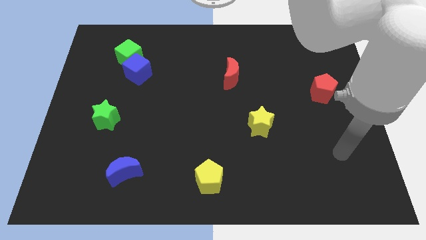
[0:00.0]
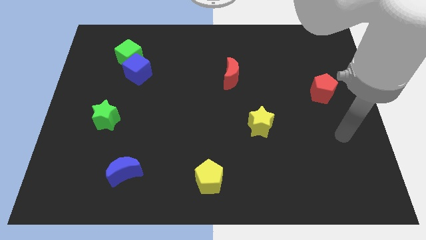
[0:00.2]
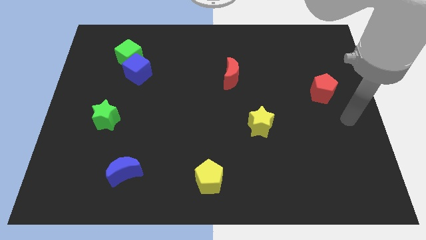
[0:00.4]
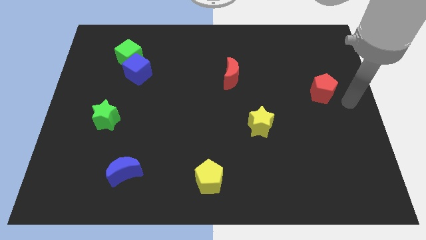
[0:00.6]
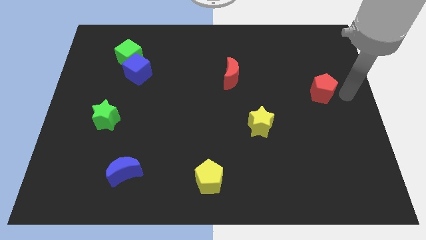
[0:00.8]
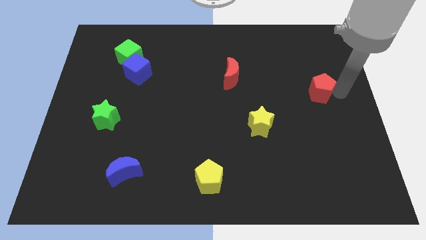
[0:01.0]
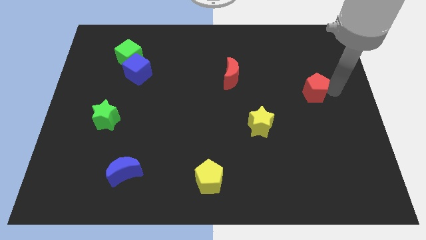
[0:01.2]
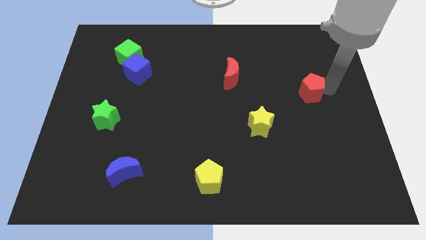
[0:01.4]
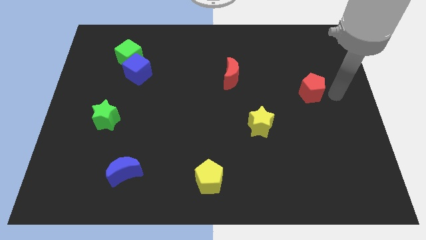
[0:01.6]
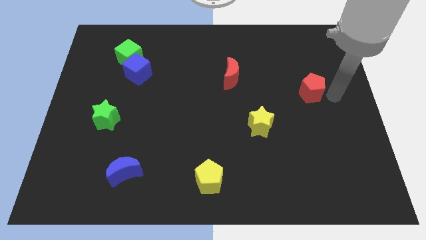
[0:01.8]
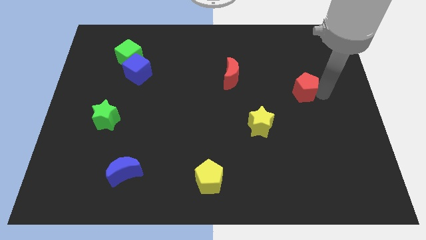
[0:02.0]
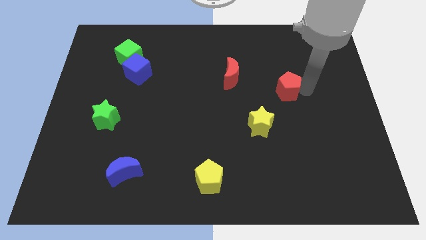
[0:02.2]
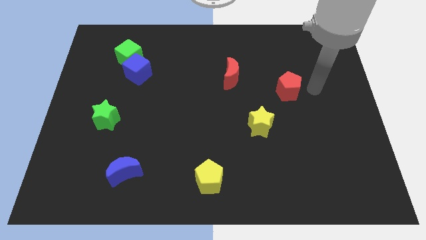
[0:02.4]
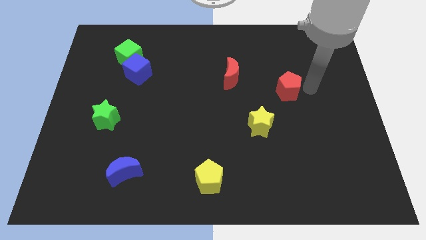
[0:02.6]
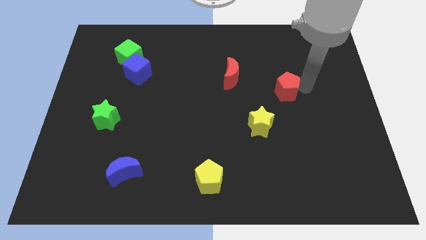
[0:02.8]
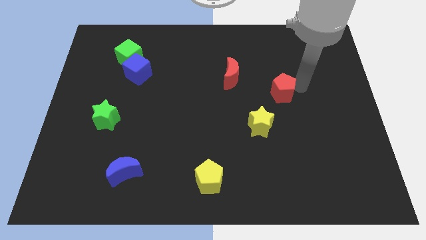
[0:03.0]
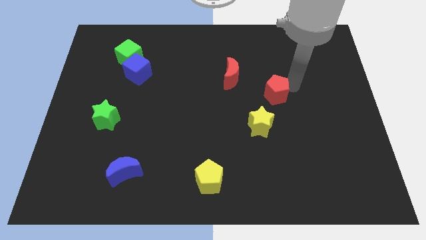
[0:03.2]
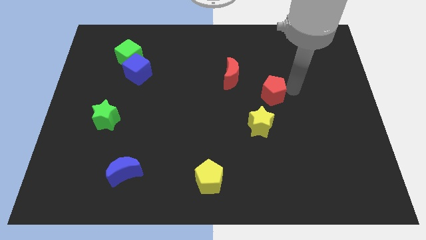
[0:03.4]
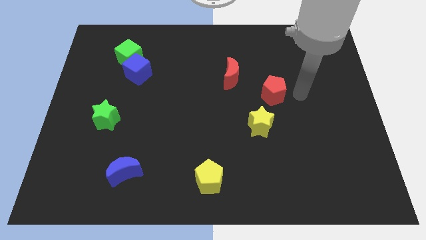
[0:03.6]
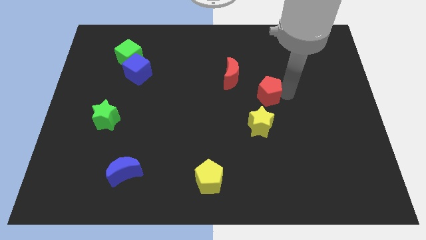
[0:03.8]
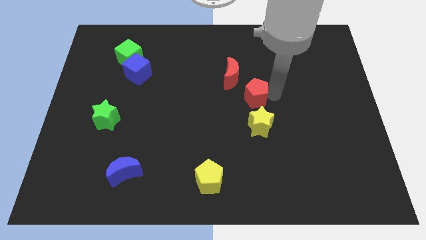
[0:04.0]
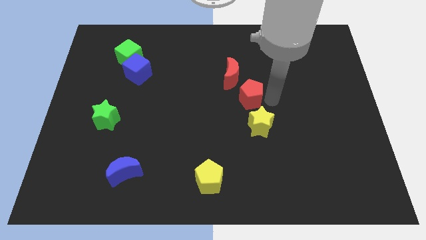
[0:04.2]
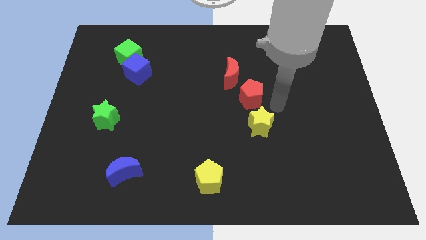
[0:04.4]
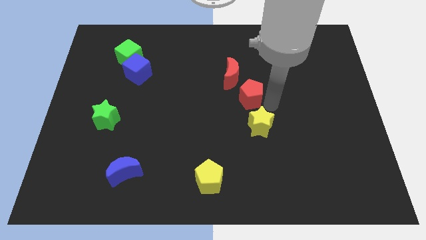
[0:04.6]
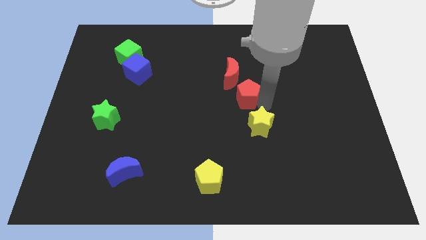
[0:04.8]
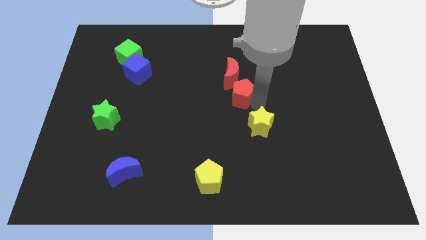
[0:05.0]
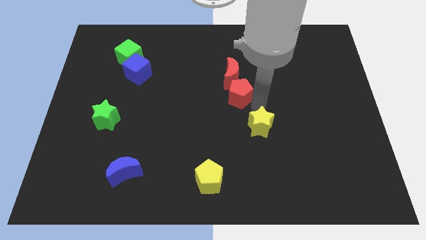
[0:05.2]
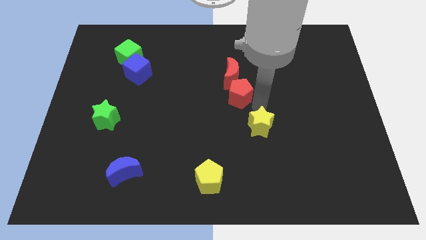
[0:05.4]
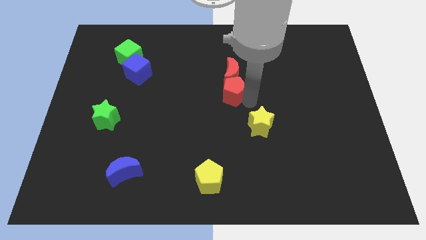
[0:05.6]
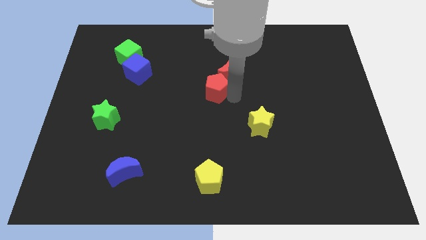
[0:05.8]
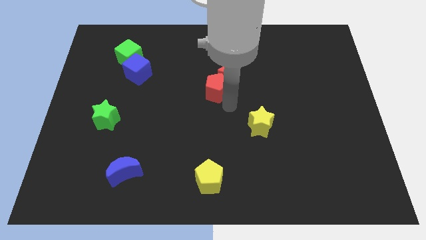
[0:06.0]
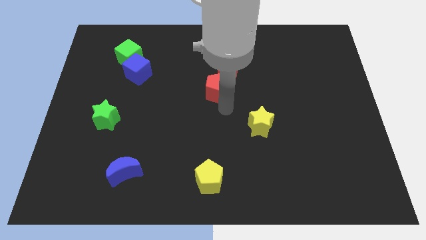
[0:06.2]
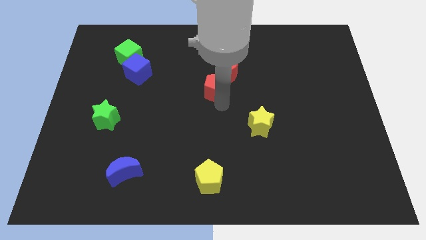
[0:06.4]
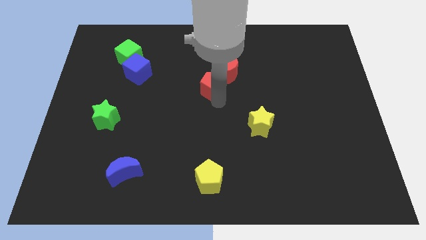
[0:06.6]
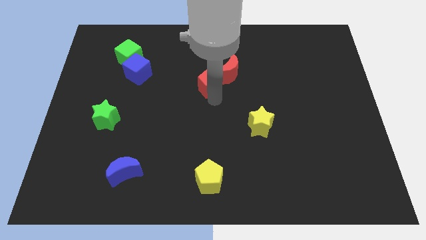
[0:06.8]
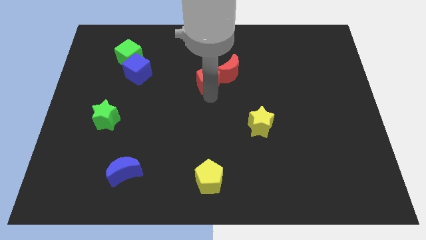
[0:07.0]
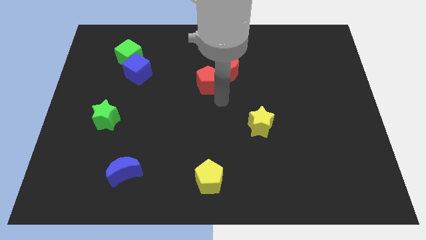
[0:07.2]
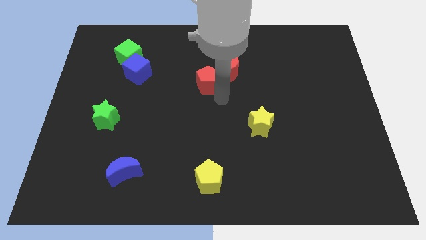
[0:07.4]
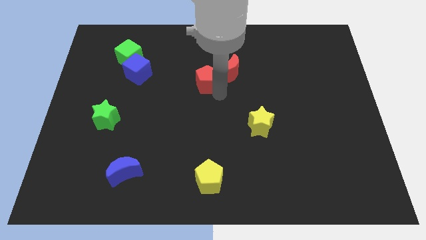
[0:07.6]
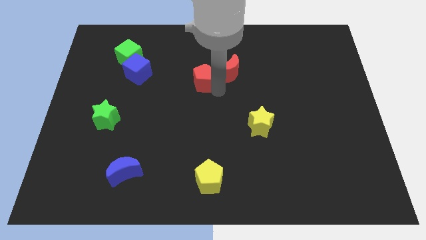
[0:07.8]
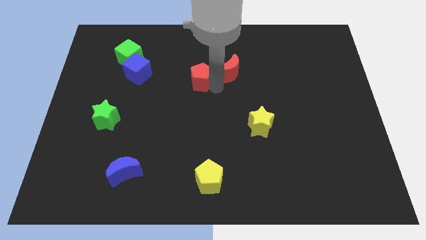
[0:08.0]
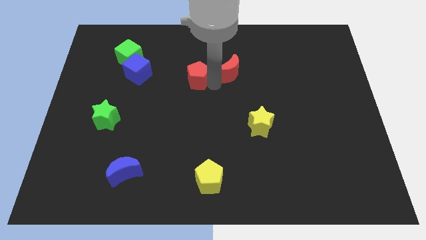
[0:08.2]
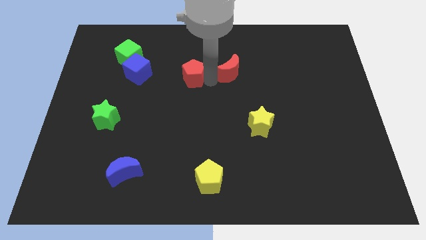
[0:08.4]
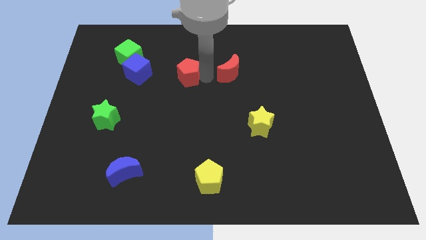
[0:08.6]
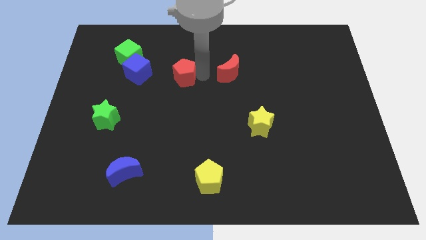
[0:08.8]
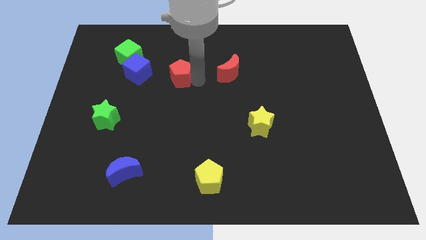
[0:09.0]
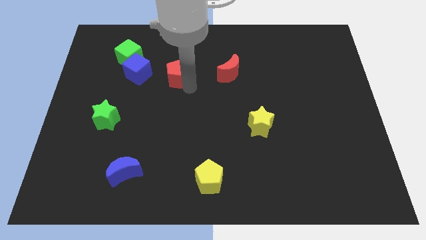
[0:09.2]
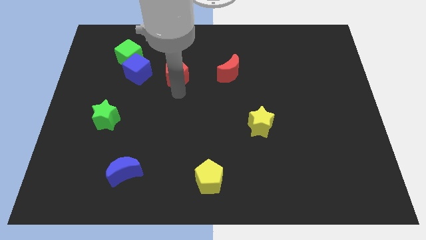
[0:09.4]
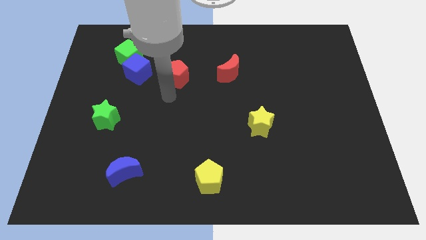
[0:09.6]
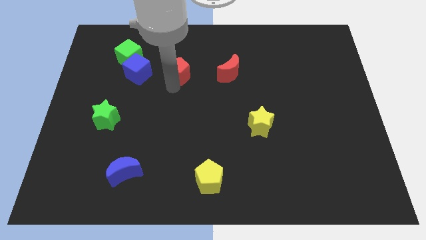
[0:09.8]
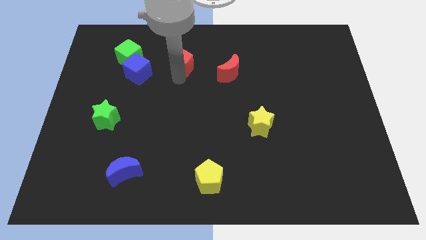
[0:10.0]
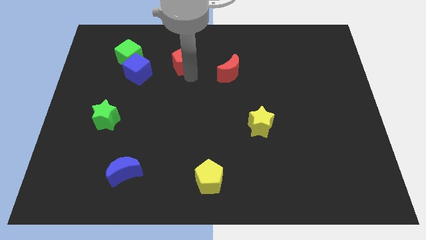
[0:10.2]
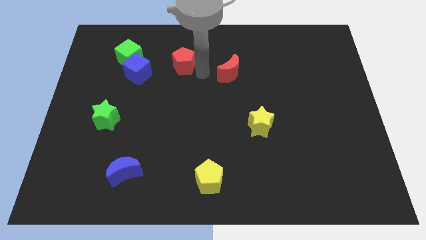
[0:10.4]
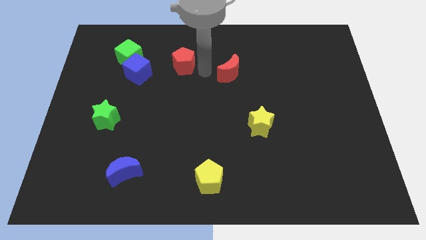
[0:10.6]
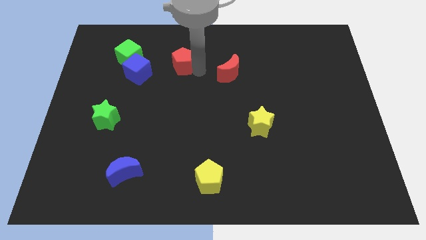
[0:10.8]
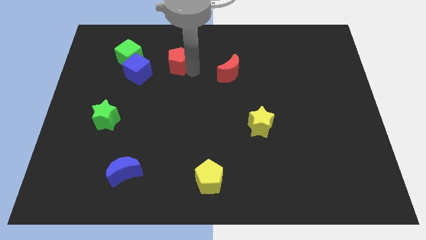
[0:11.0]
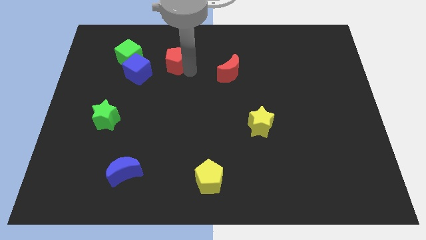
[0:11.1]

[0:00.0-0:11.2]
slide the red pentagon diagonally up and to the right of the blue cube

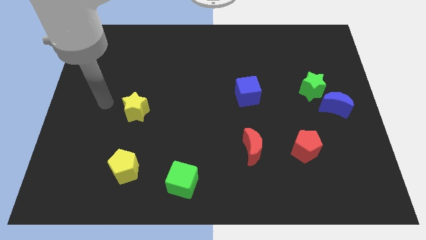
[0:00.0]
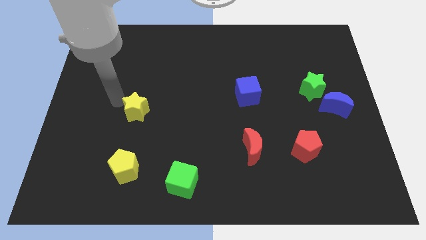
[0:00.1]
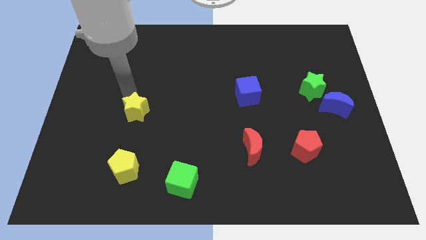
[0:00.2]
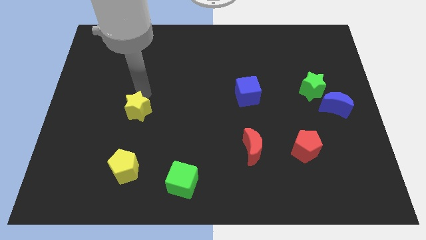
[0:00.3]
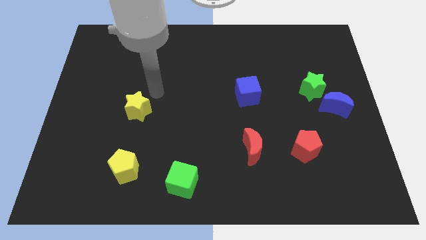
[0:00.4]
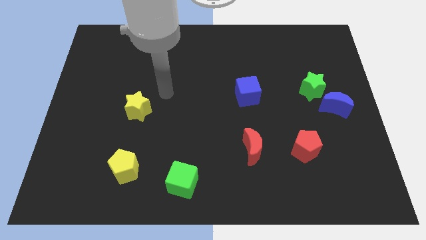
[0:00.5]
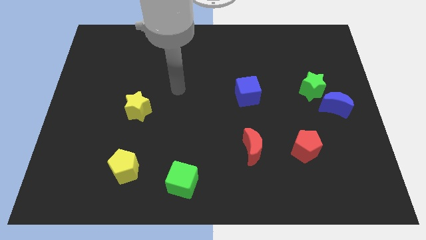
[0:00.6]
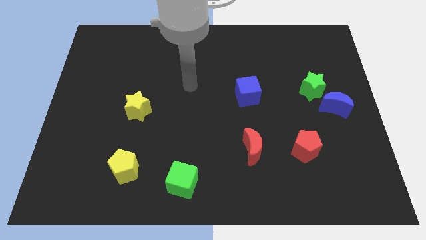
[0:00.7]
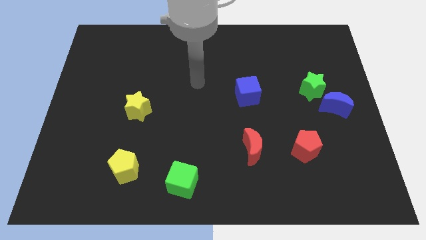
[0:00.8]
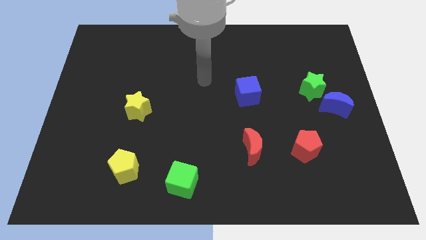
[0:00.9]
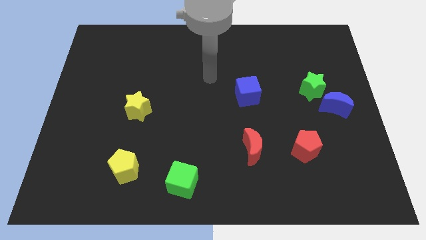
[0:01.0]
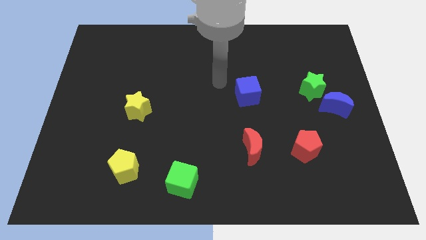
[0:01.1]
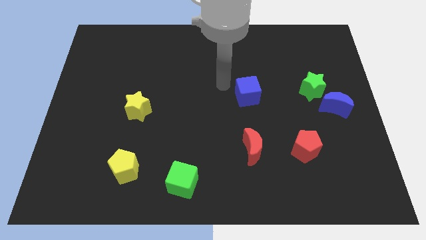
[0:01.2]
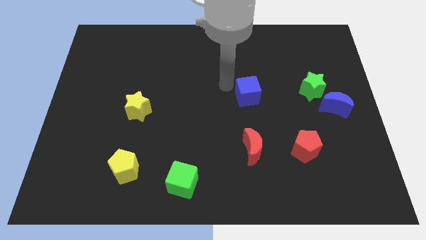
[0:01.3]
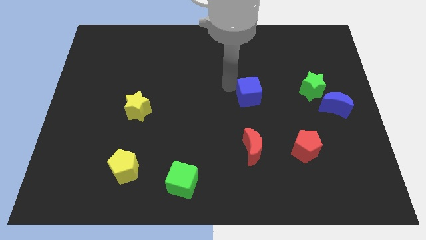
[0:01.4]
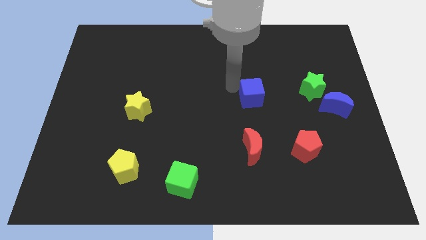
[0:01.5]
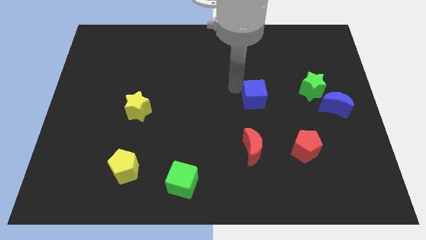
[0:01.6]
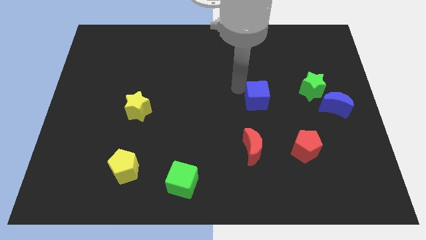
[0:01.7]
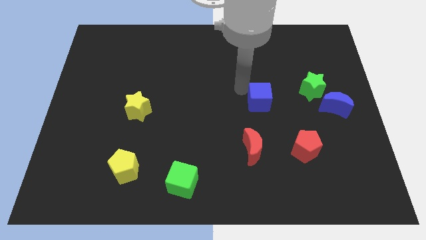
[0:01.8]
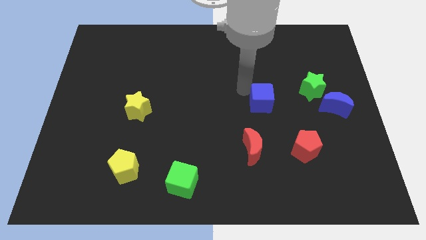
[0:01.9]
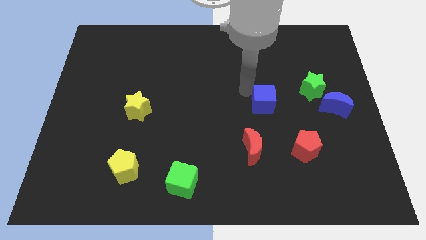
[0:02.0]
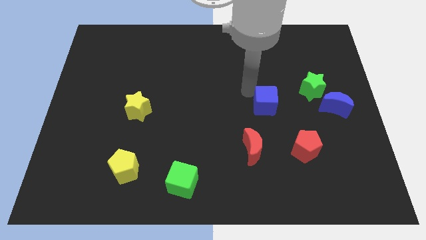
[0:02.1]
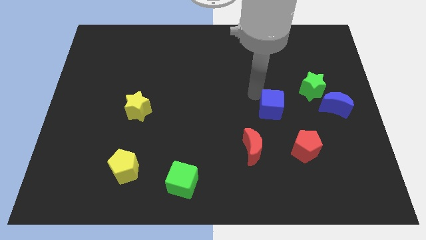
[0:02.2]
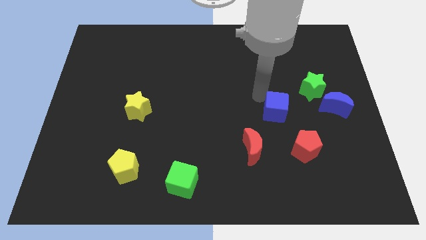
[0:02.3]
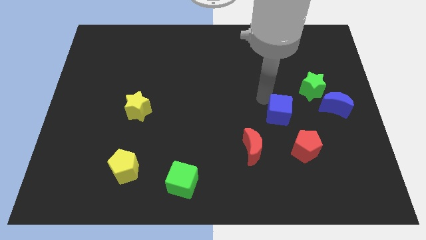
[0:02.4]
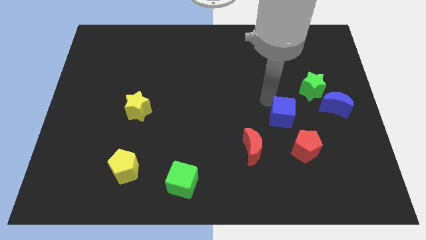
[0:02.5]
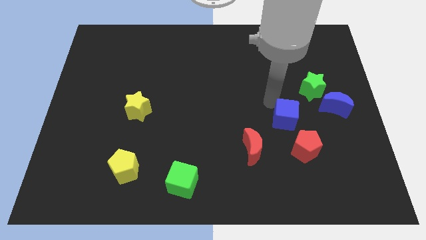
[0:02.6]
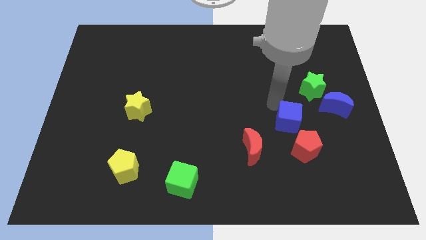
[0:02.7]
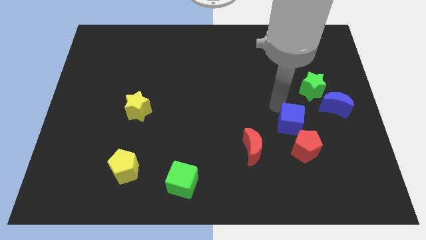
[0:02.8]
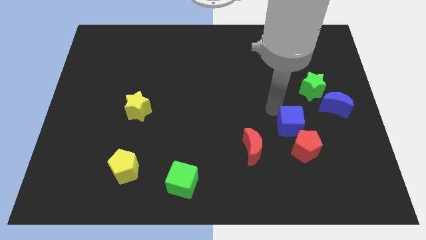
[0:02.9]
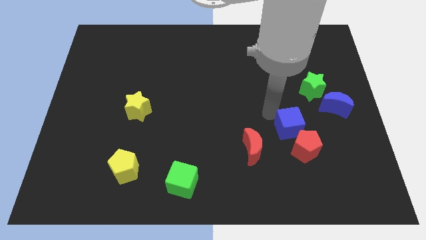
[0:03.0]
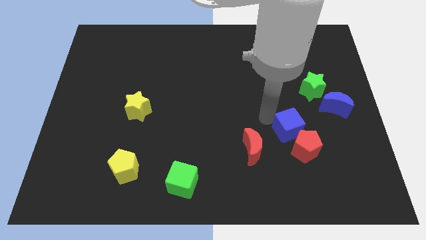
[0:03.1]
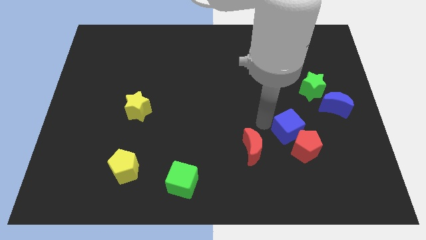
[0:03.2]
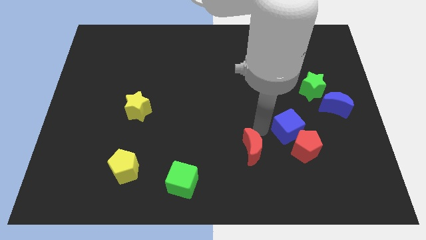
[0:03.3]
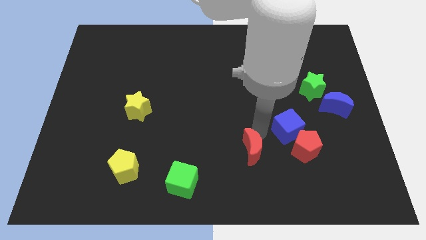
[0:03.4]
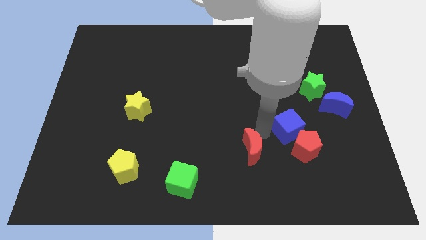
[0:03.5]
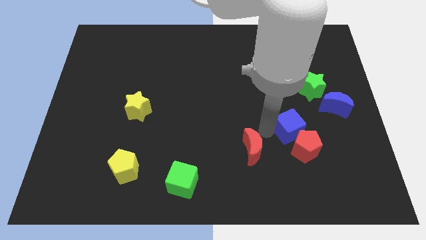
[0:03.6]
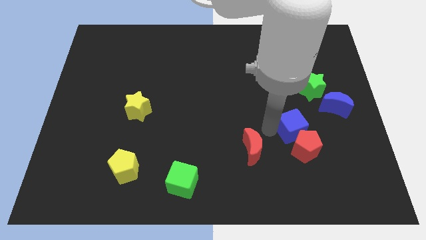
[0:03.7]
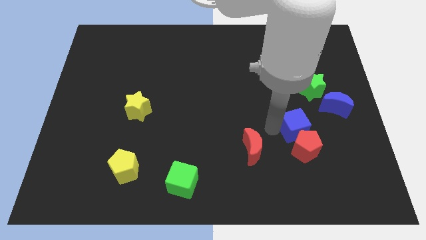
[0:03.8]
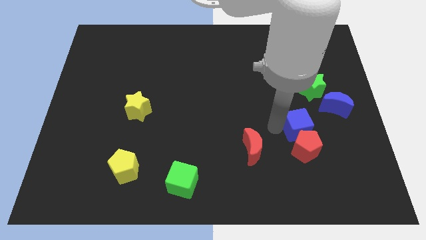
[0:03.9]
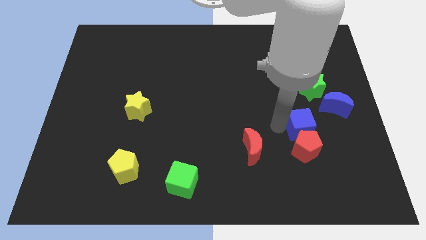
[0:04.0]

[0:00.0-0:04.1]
move the blue cube below the green star
